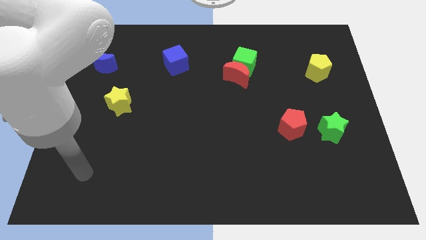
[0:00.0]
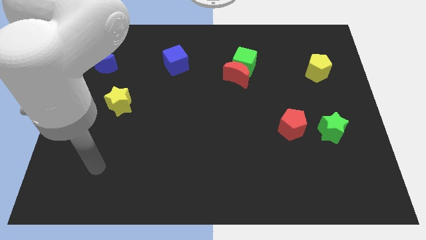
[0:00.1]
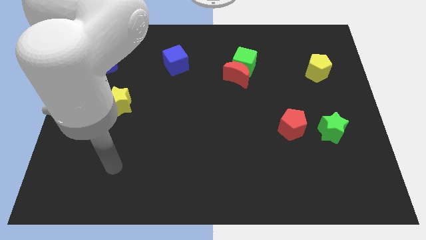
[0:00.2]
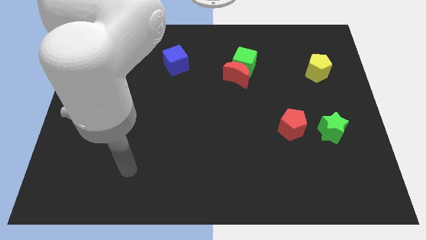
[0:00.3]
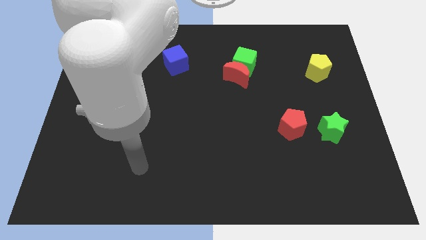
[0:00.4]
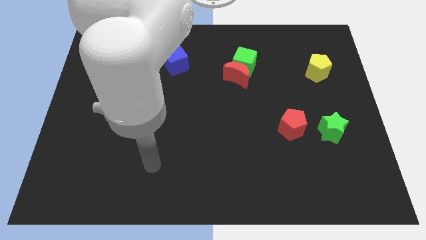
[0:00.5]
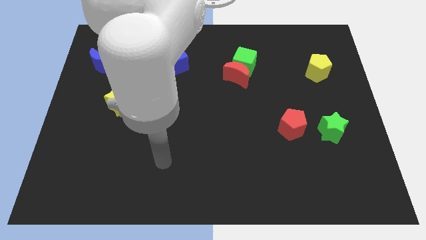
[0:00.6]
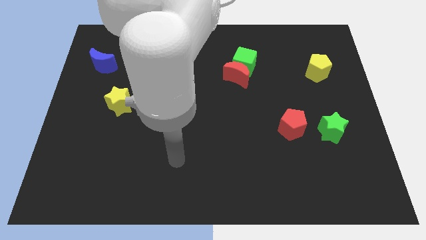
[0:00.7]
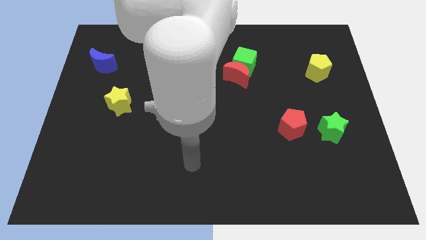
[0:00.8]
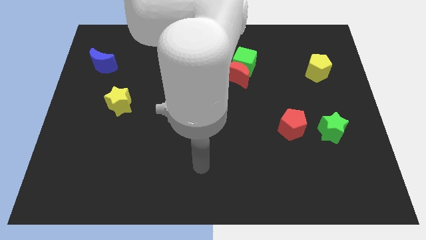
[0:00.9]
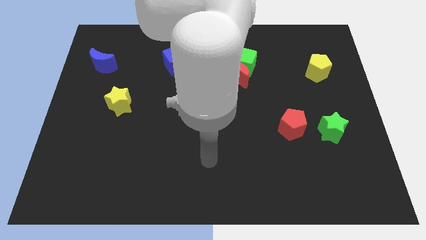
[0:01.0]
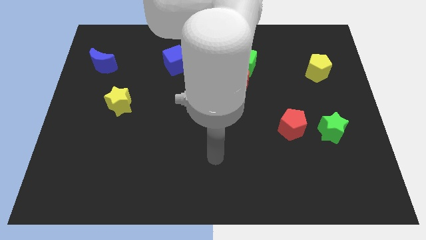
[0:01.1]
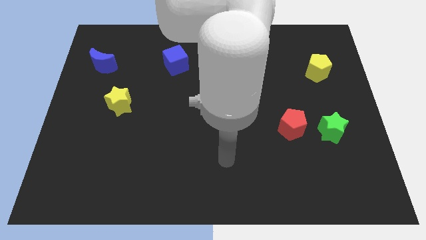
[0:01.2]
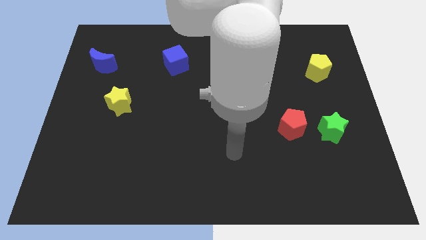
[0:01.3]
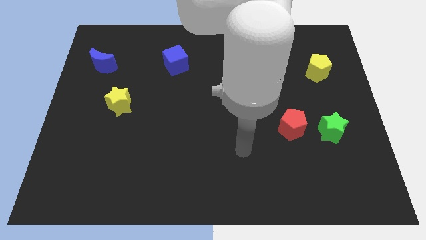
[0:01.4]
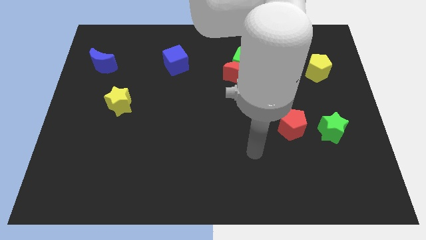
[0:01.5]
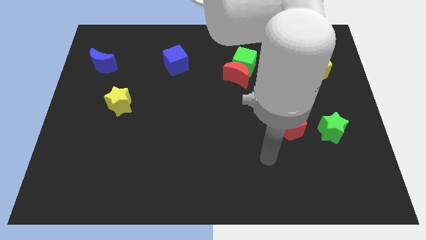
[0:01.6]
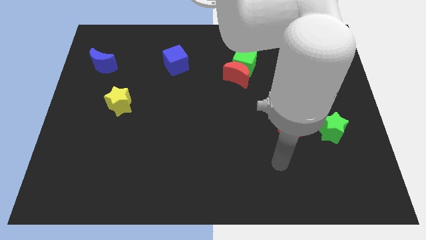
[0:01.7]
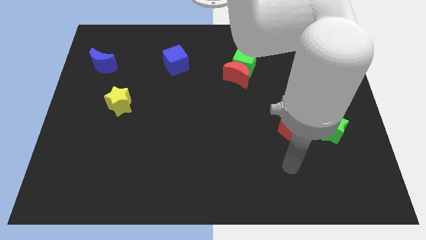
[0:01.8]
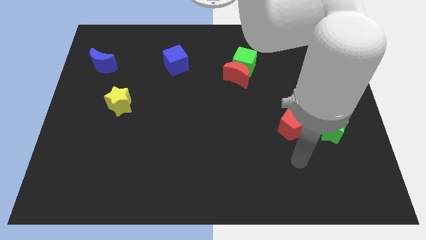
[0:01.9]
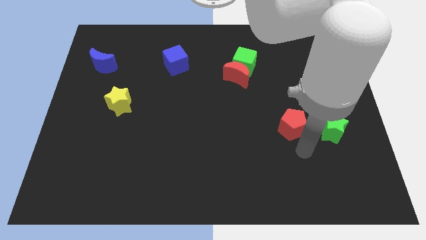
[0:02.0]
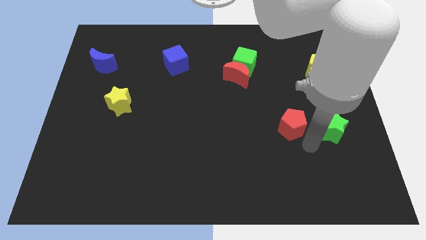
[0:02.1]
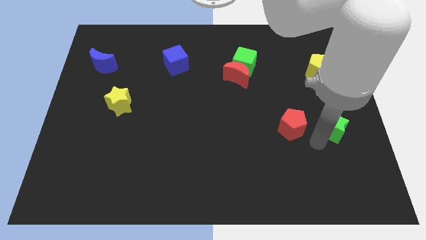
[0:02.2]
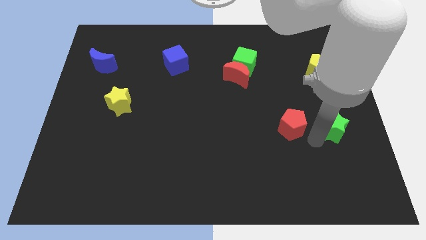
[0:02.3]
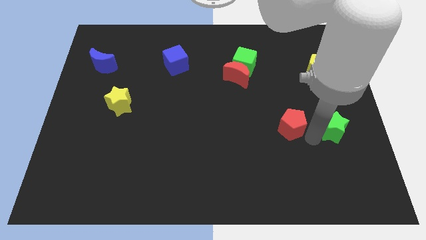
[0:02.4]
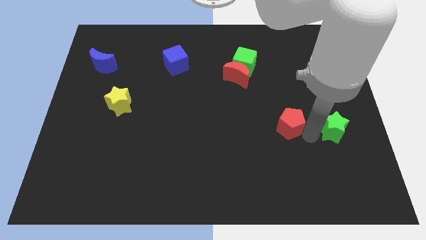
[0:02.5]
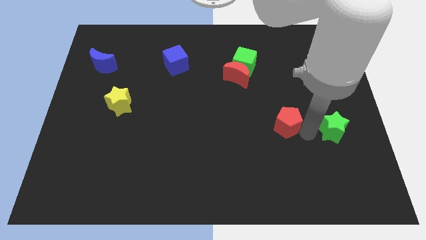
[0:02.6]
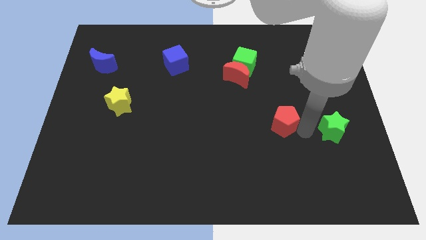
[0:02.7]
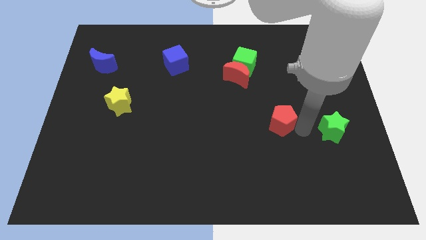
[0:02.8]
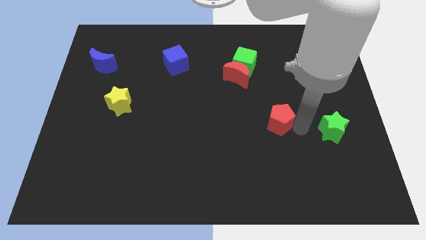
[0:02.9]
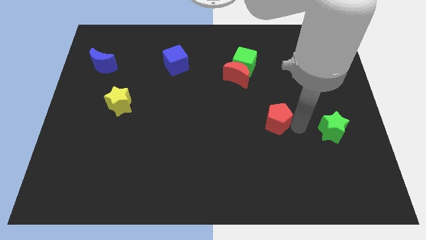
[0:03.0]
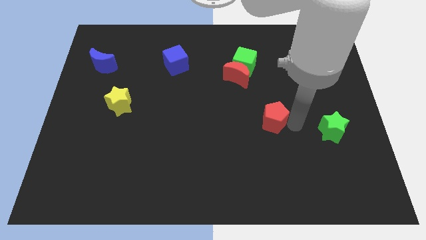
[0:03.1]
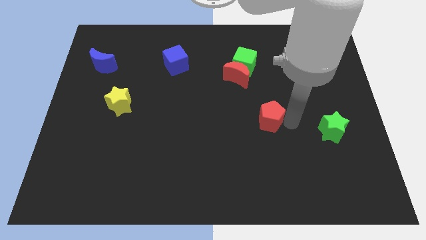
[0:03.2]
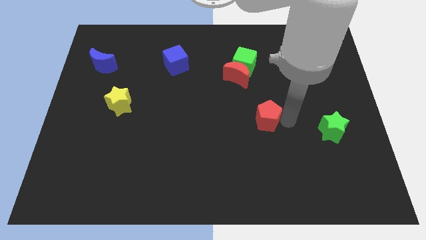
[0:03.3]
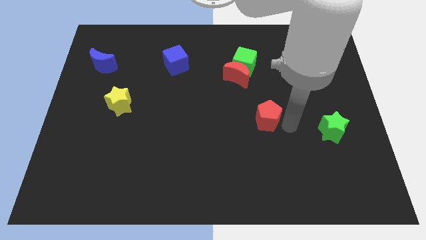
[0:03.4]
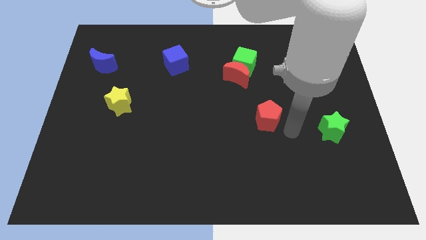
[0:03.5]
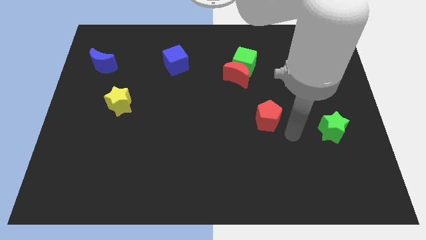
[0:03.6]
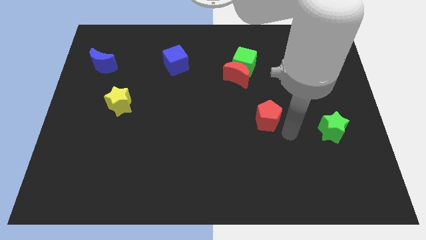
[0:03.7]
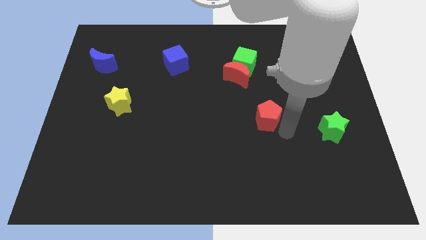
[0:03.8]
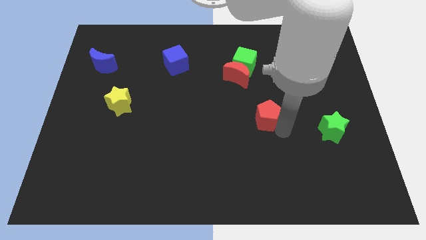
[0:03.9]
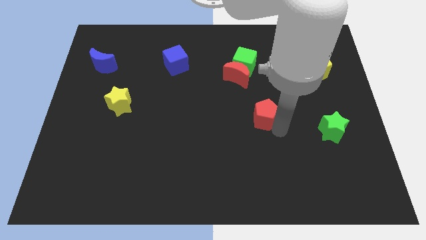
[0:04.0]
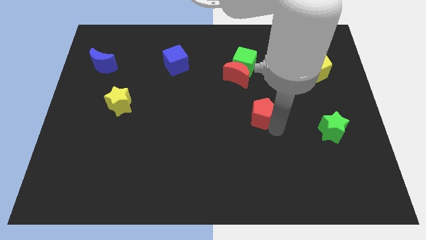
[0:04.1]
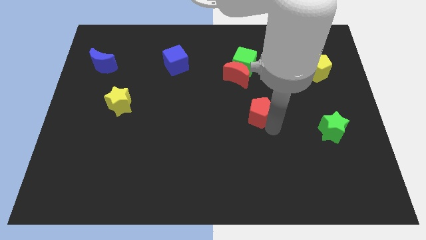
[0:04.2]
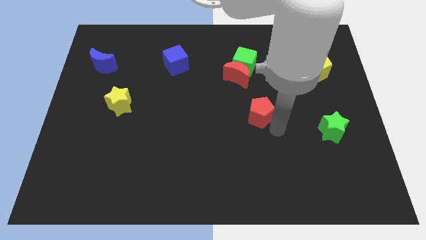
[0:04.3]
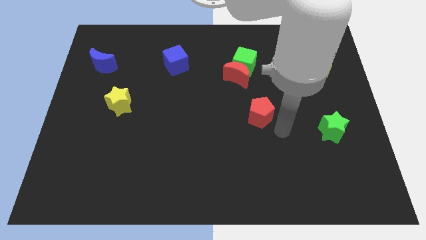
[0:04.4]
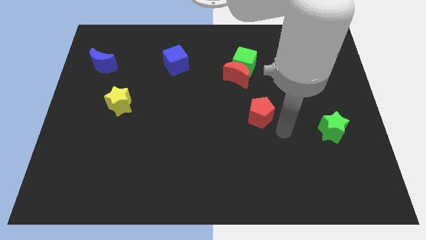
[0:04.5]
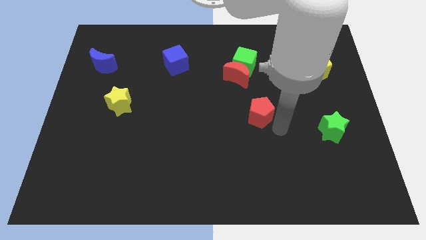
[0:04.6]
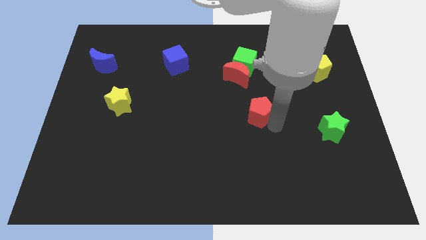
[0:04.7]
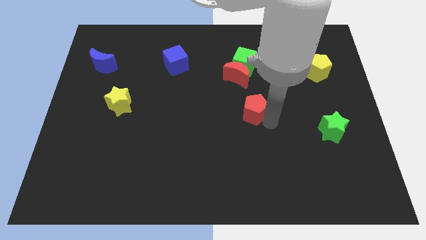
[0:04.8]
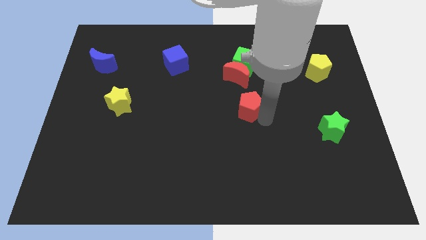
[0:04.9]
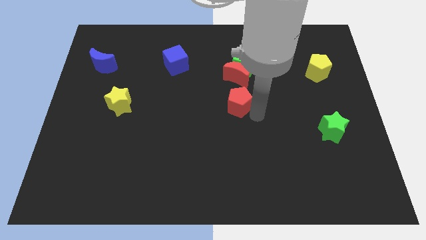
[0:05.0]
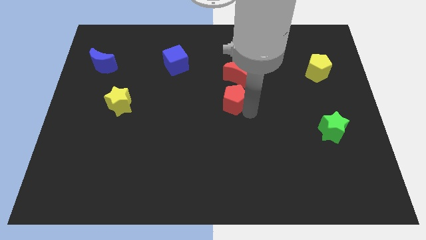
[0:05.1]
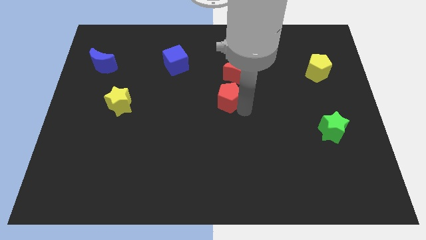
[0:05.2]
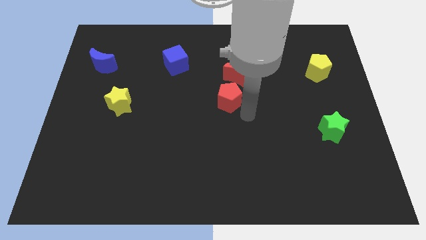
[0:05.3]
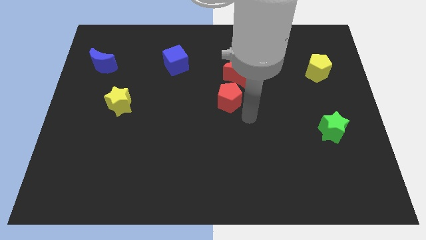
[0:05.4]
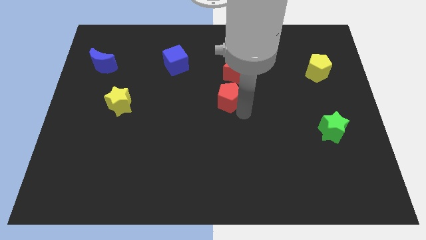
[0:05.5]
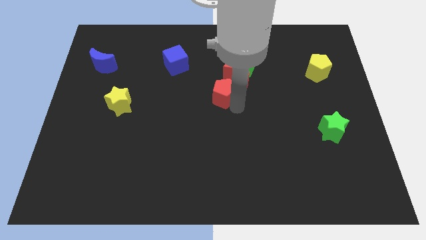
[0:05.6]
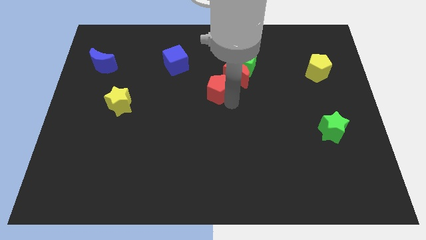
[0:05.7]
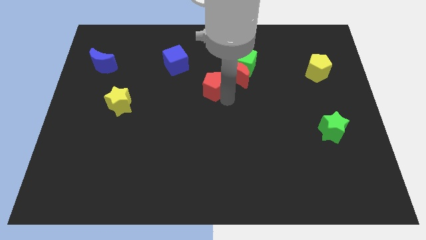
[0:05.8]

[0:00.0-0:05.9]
slide the red pentagon to the left of the red moon
